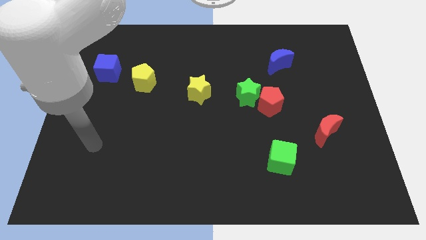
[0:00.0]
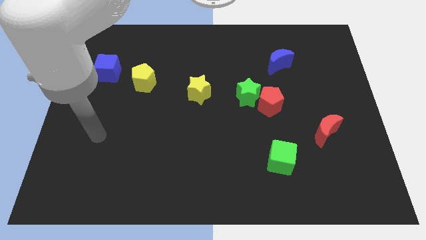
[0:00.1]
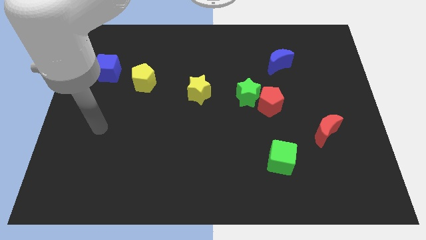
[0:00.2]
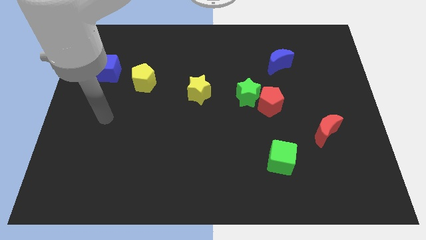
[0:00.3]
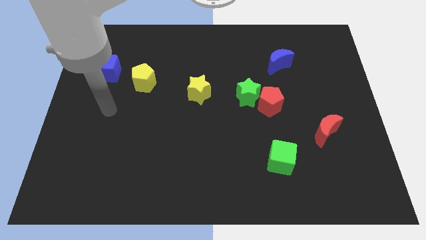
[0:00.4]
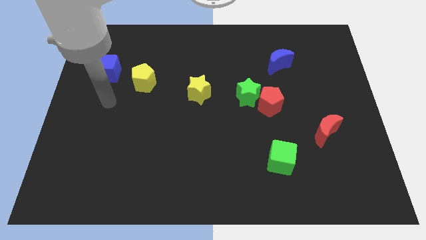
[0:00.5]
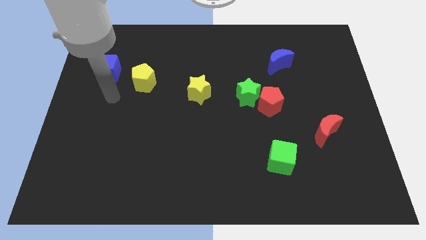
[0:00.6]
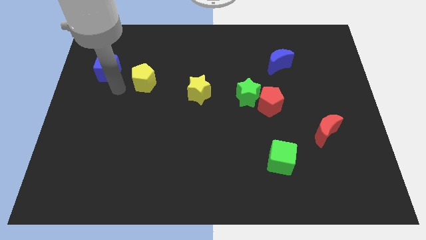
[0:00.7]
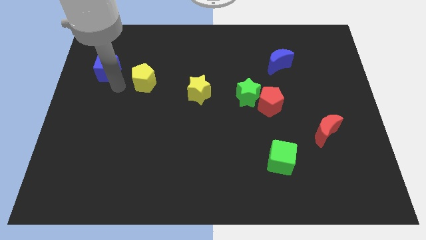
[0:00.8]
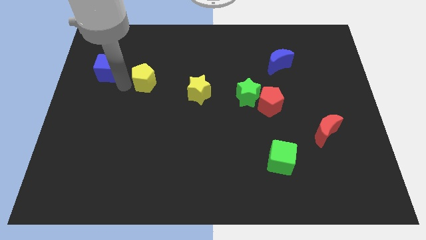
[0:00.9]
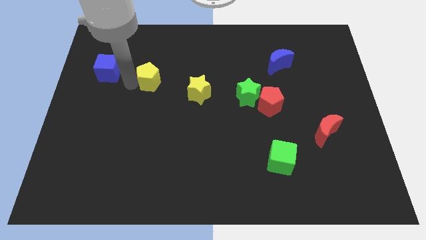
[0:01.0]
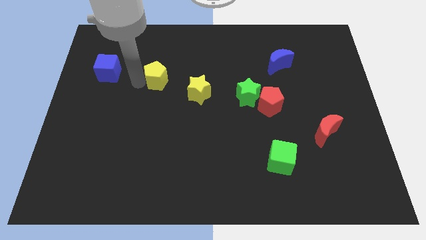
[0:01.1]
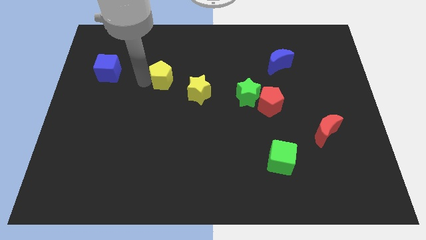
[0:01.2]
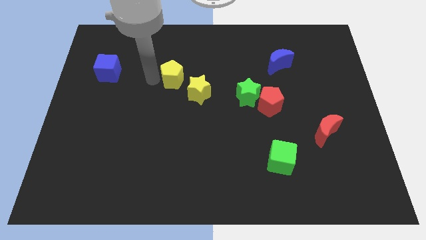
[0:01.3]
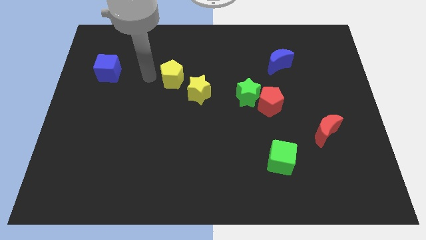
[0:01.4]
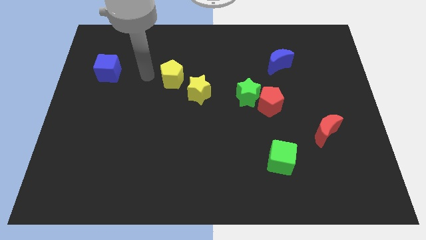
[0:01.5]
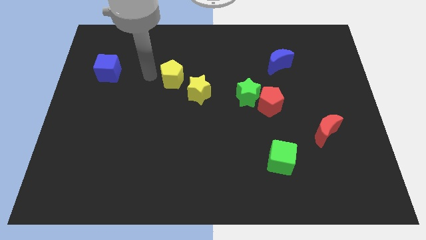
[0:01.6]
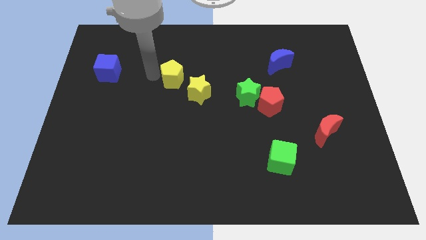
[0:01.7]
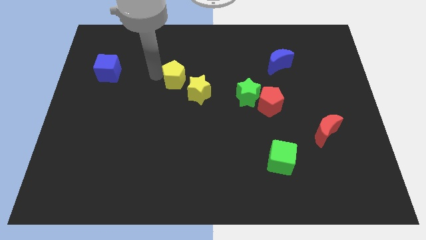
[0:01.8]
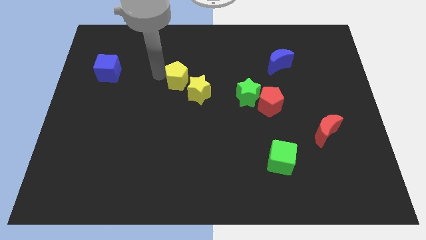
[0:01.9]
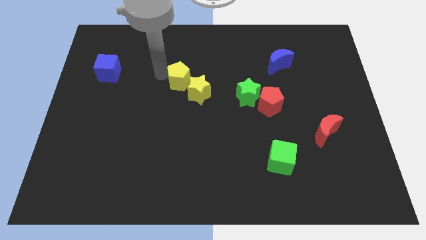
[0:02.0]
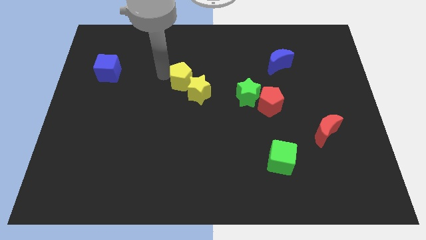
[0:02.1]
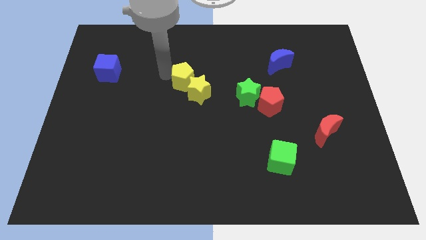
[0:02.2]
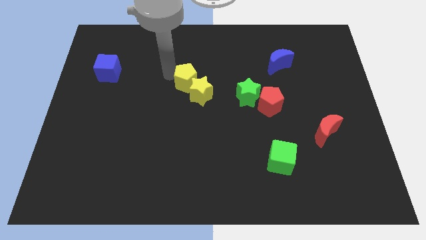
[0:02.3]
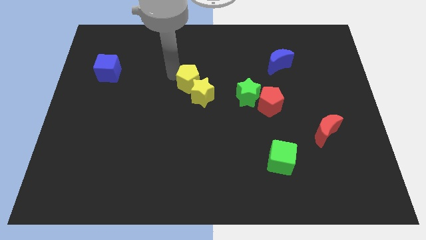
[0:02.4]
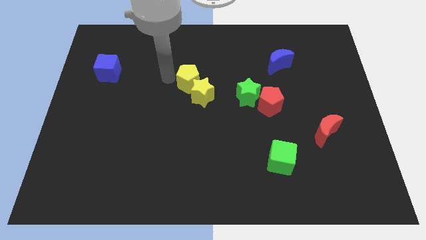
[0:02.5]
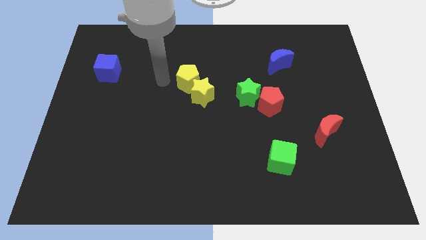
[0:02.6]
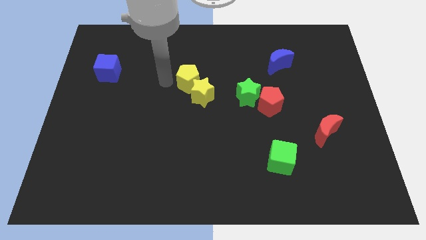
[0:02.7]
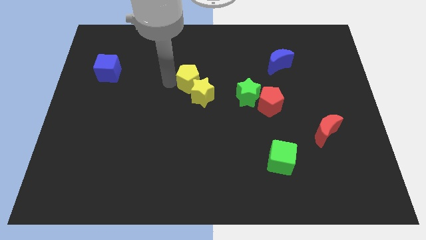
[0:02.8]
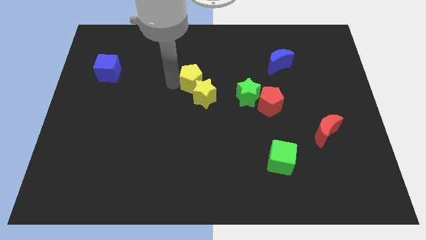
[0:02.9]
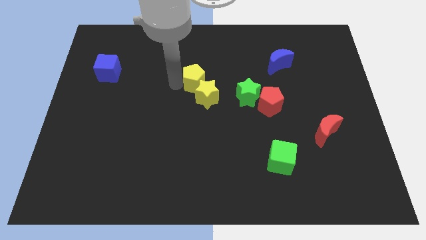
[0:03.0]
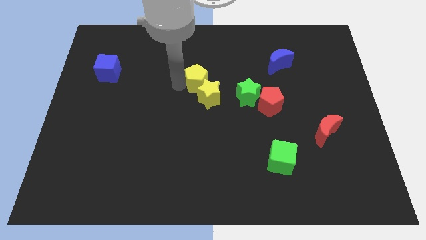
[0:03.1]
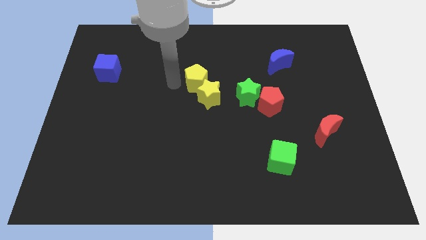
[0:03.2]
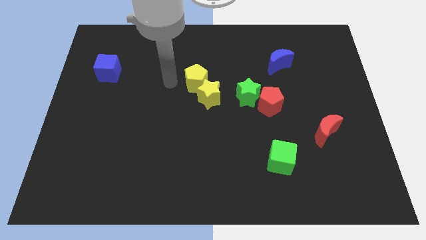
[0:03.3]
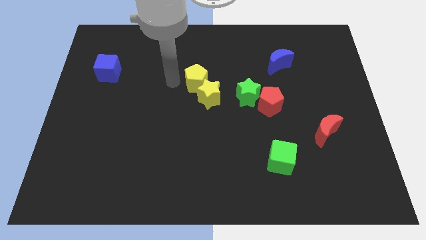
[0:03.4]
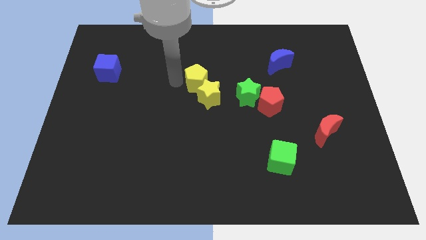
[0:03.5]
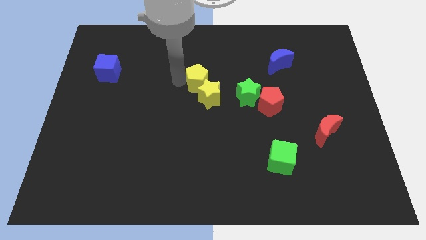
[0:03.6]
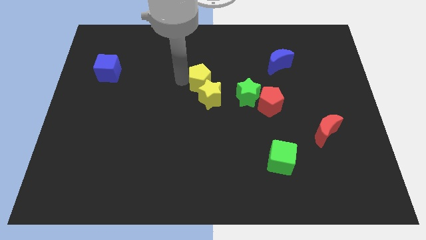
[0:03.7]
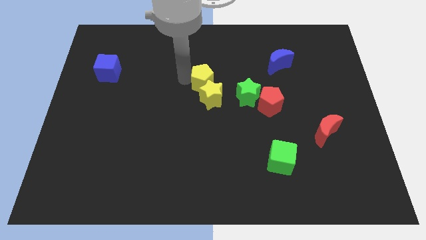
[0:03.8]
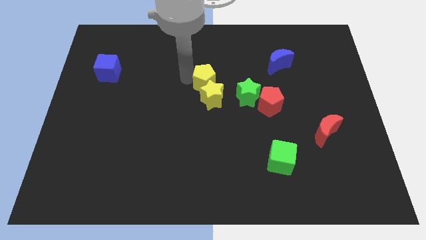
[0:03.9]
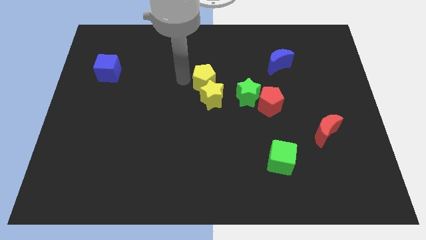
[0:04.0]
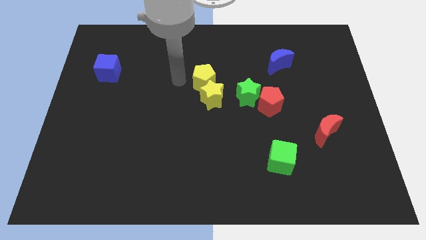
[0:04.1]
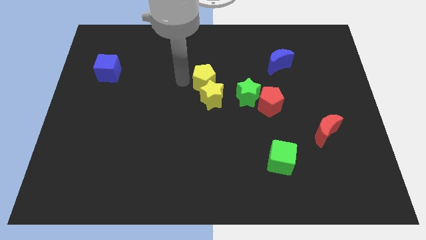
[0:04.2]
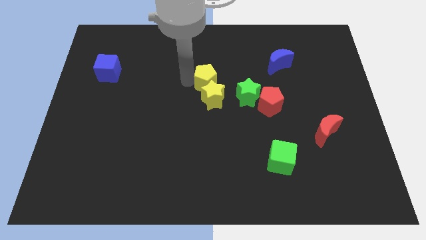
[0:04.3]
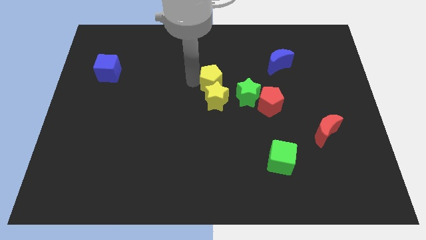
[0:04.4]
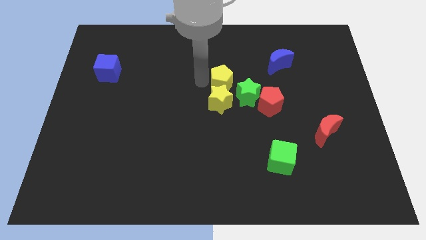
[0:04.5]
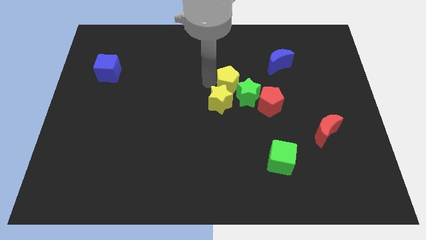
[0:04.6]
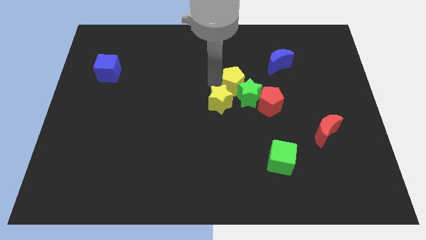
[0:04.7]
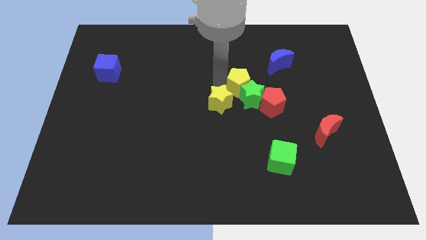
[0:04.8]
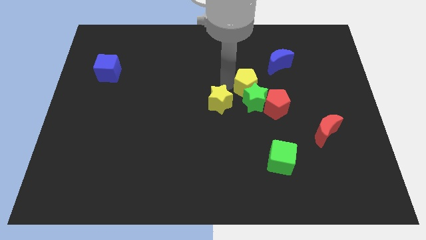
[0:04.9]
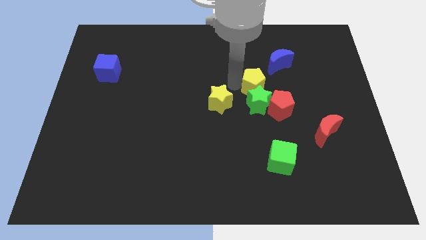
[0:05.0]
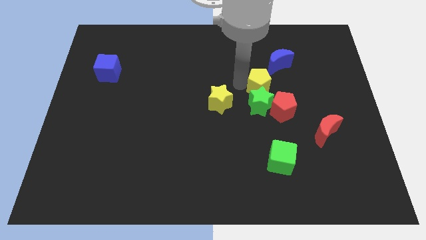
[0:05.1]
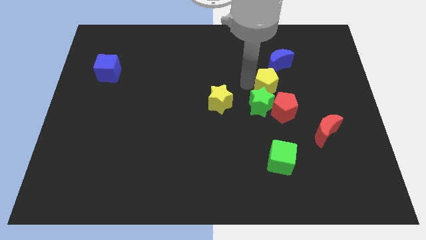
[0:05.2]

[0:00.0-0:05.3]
put the yellow pentagon below the blue moon
